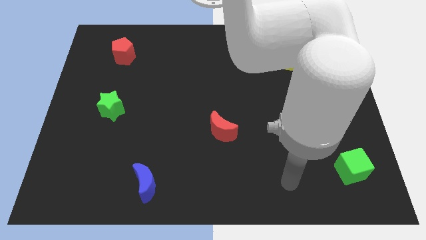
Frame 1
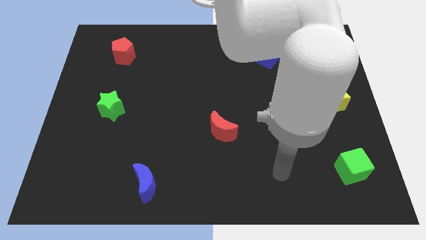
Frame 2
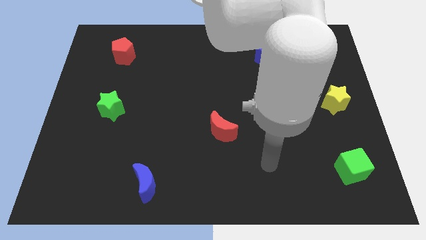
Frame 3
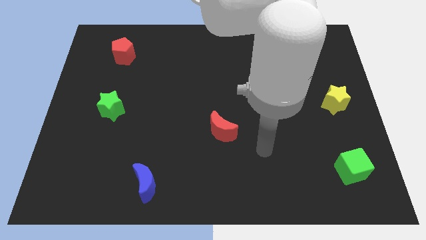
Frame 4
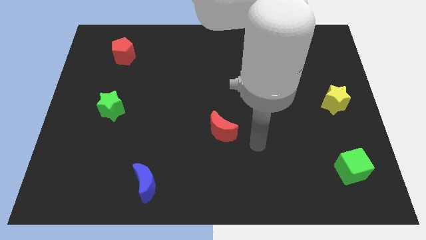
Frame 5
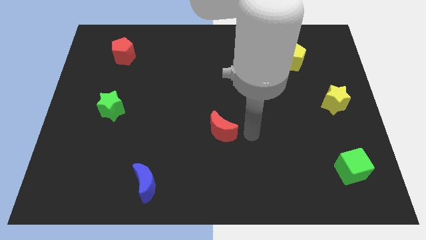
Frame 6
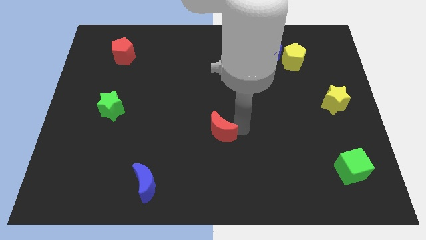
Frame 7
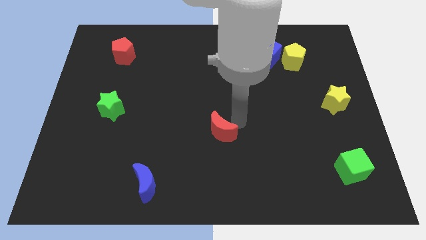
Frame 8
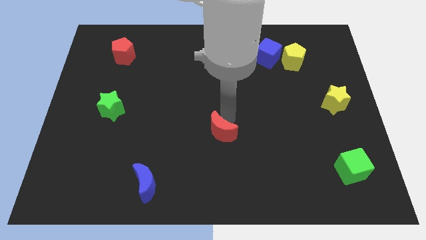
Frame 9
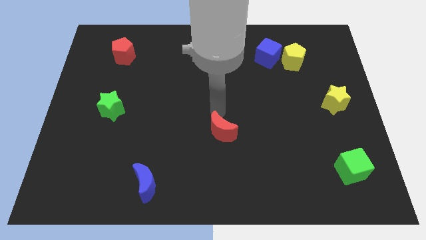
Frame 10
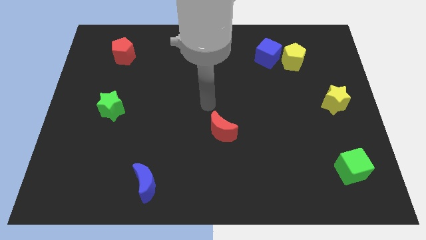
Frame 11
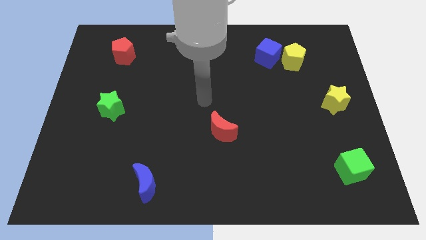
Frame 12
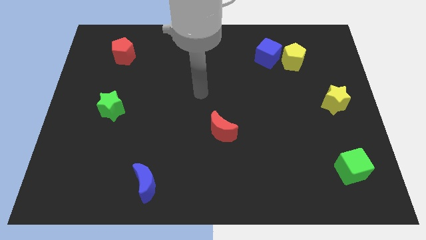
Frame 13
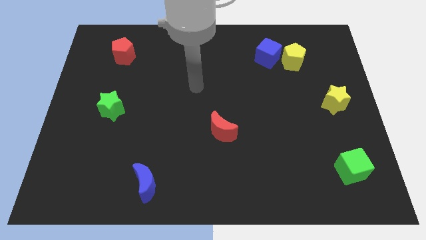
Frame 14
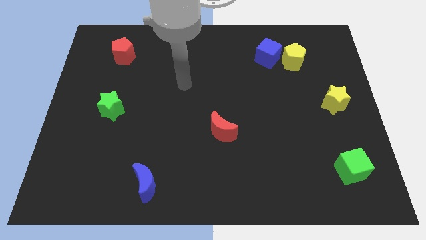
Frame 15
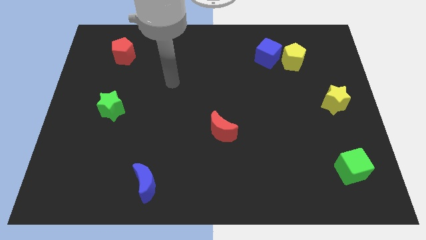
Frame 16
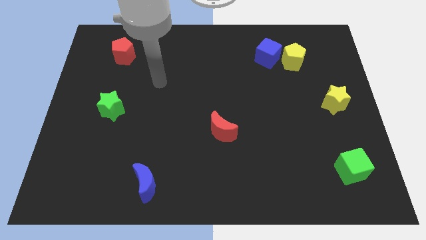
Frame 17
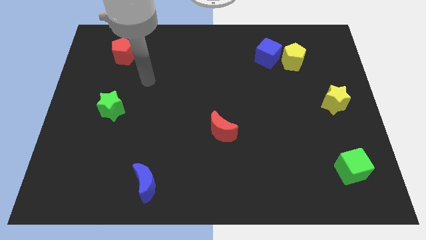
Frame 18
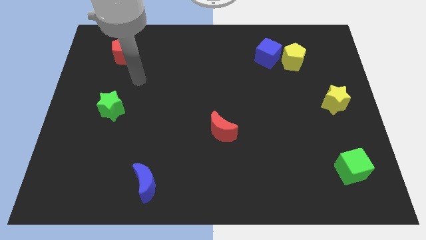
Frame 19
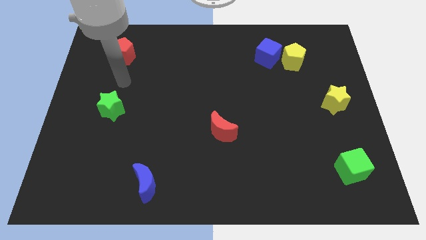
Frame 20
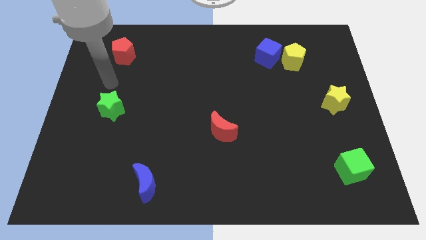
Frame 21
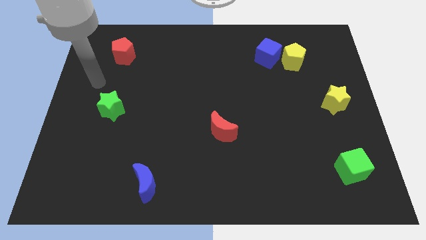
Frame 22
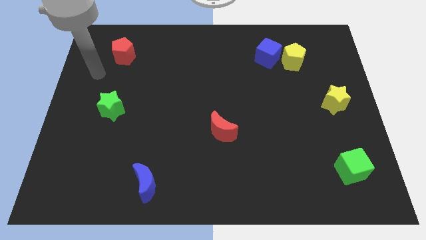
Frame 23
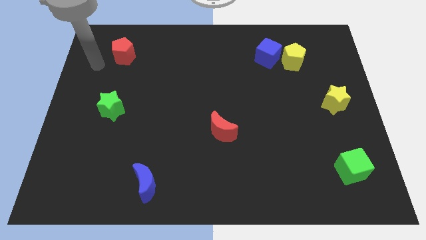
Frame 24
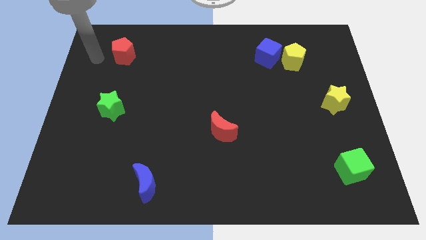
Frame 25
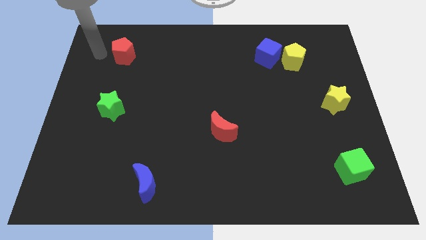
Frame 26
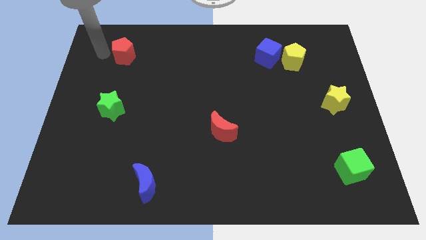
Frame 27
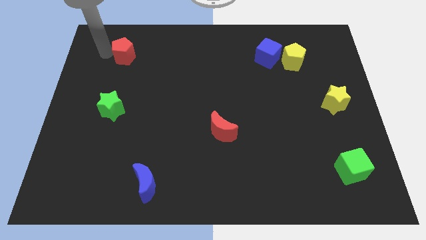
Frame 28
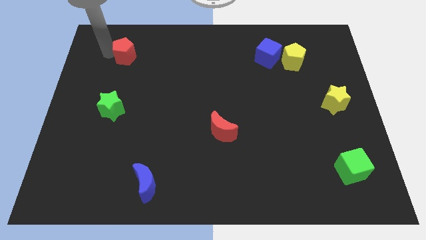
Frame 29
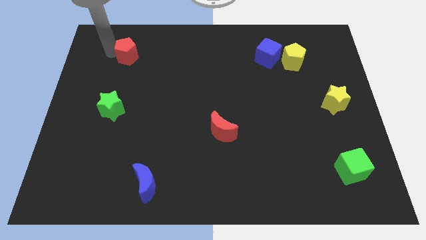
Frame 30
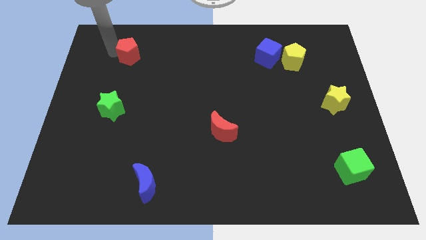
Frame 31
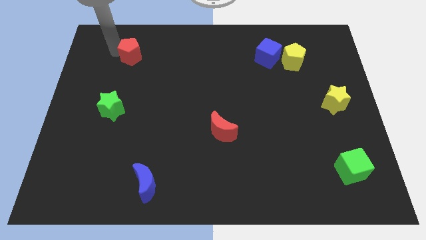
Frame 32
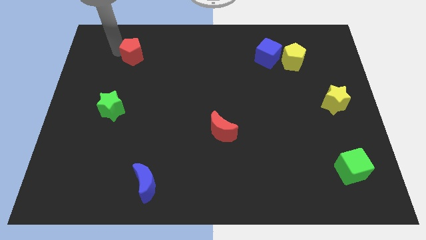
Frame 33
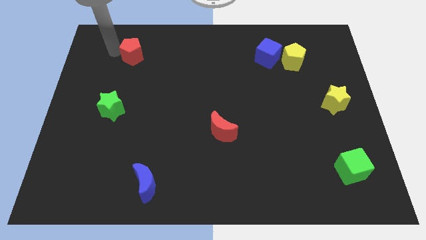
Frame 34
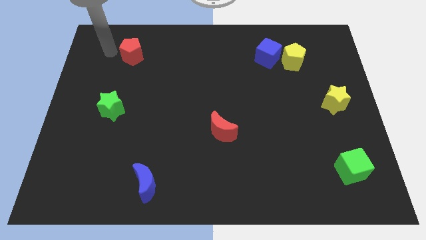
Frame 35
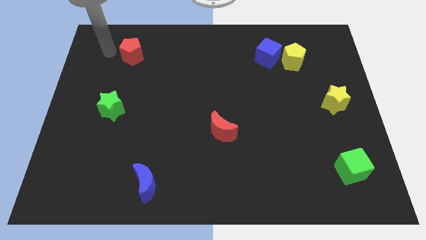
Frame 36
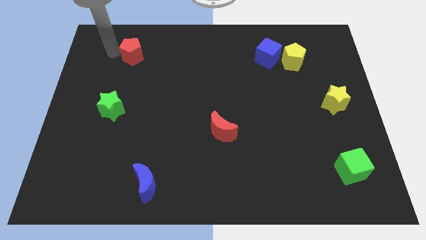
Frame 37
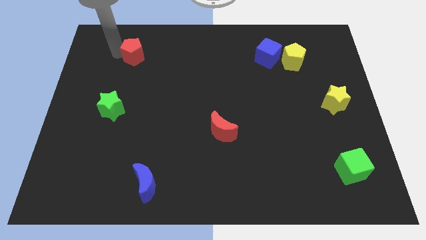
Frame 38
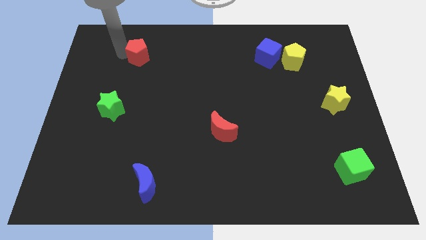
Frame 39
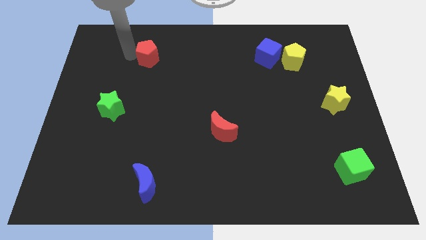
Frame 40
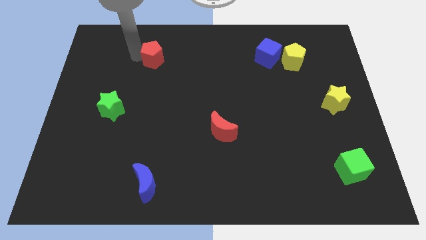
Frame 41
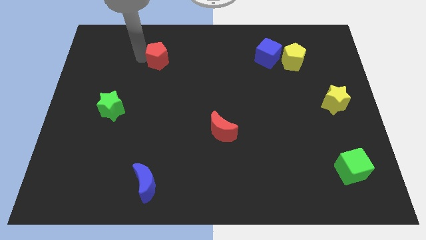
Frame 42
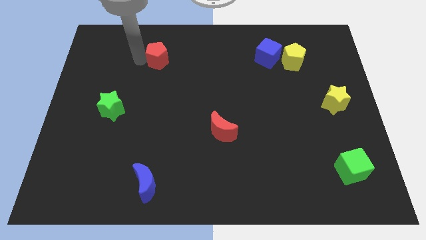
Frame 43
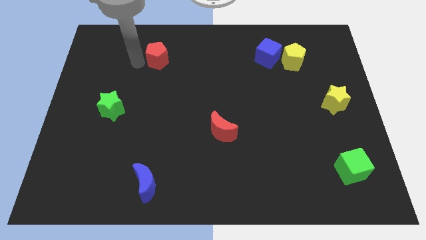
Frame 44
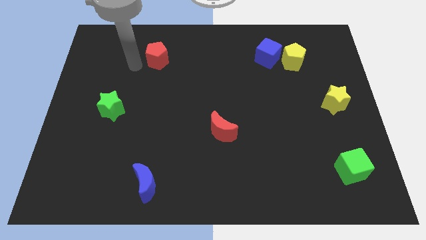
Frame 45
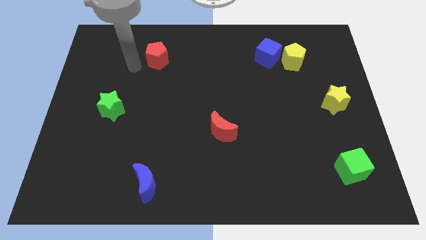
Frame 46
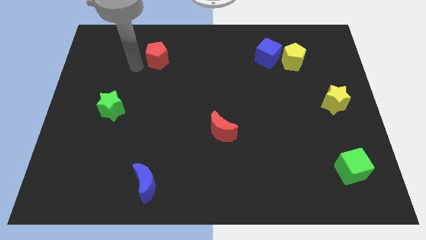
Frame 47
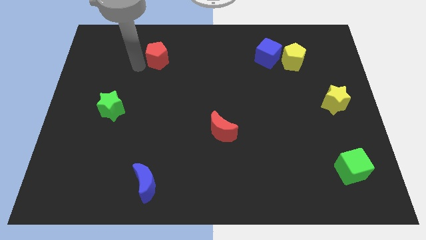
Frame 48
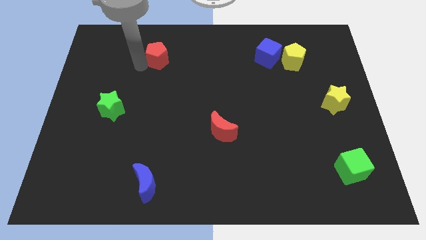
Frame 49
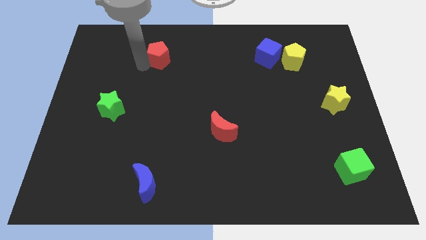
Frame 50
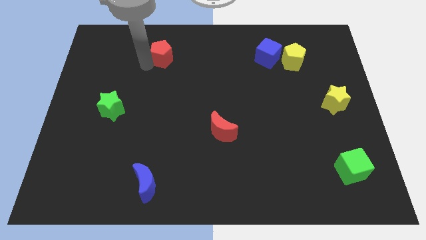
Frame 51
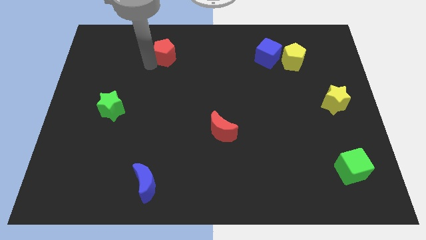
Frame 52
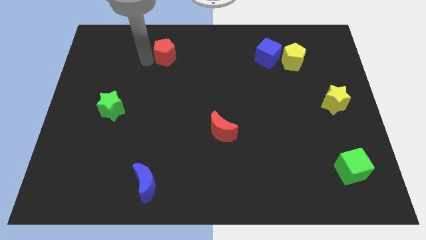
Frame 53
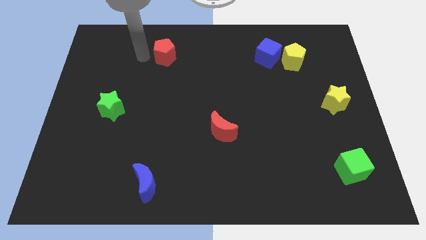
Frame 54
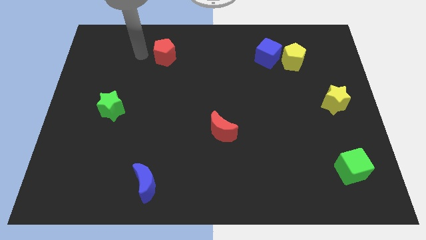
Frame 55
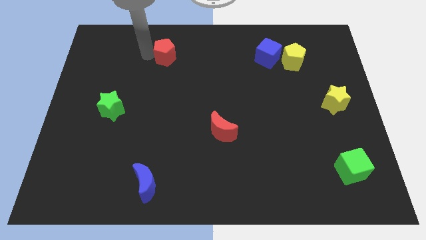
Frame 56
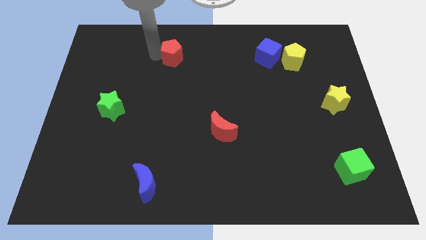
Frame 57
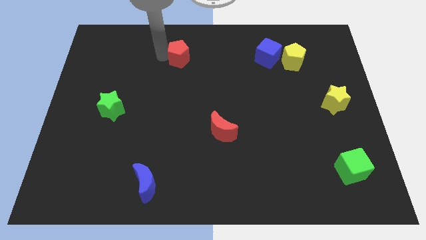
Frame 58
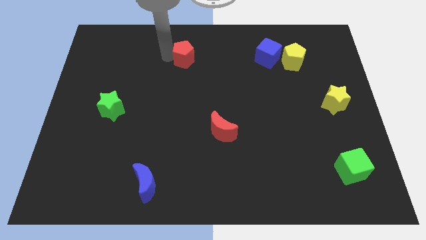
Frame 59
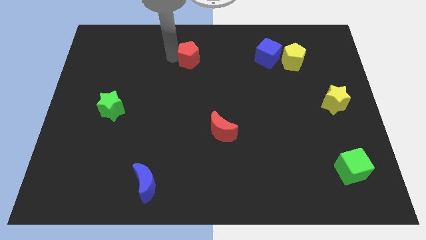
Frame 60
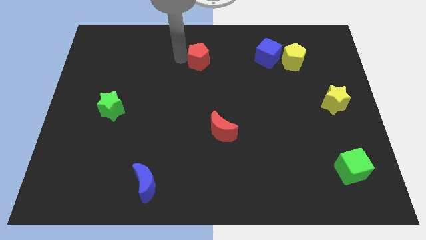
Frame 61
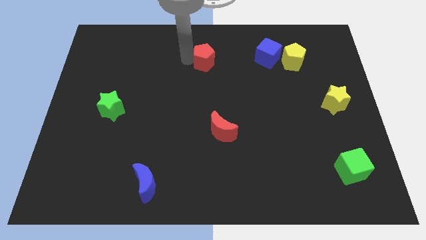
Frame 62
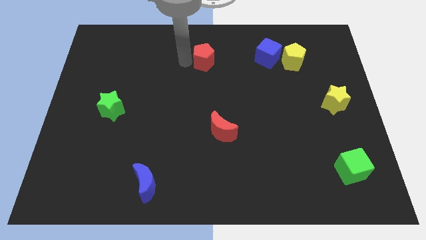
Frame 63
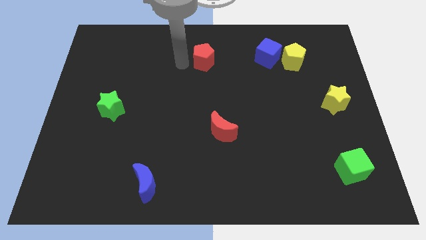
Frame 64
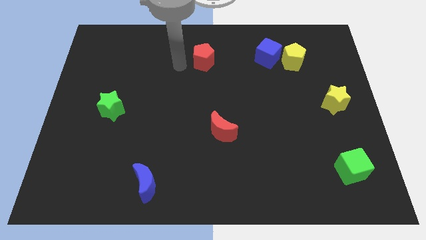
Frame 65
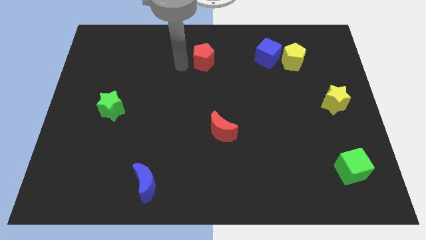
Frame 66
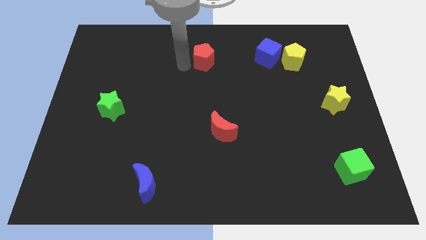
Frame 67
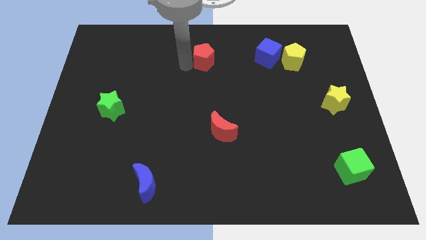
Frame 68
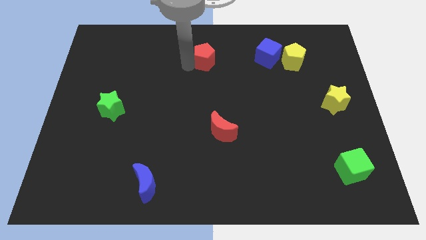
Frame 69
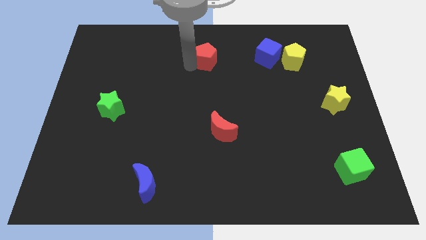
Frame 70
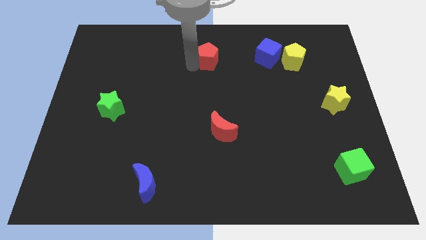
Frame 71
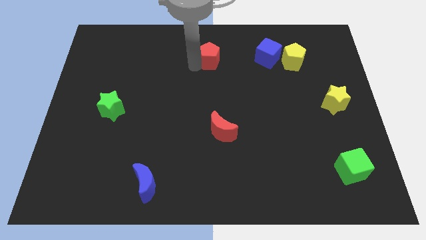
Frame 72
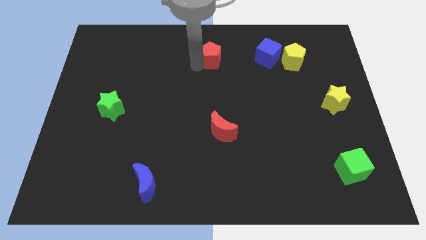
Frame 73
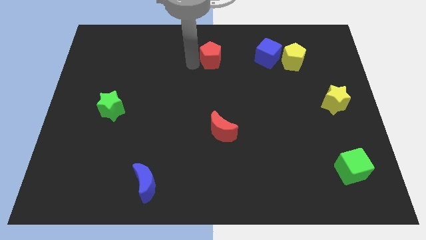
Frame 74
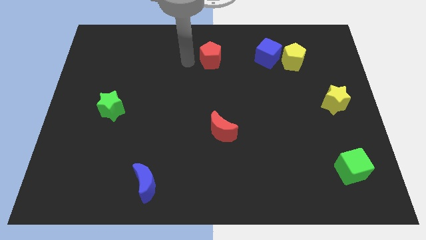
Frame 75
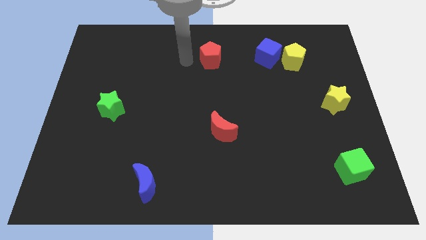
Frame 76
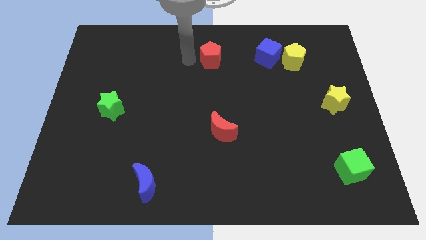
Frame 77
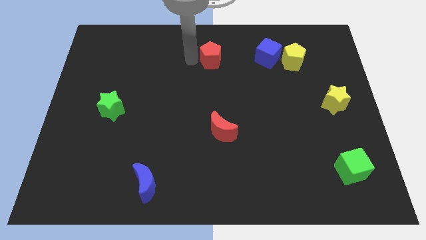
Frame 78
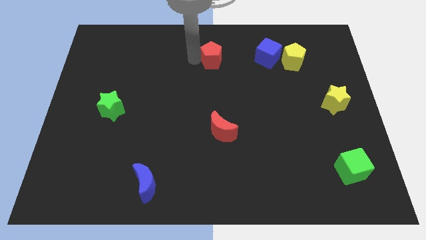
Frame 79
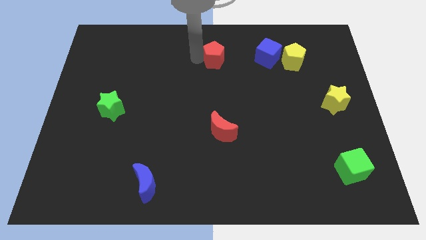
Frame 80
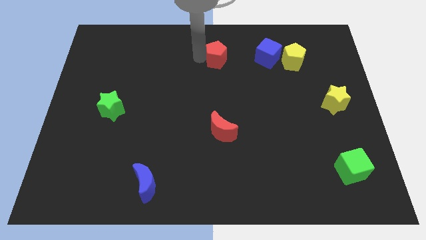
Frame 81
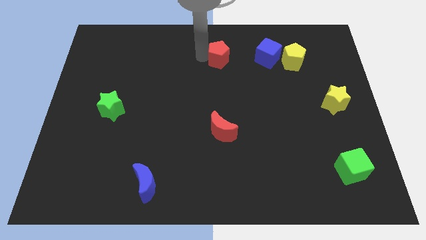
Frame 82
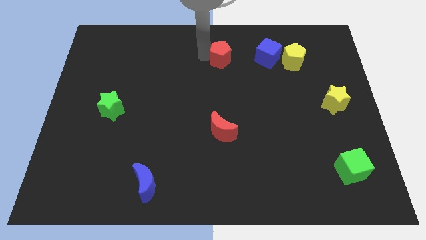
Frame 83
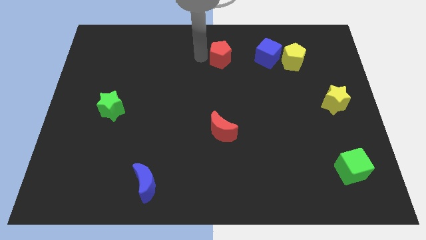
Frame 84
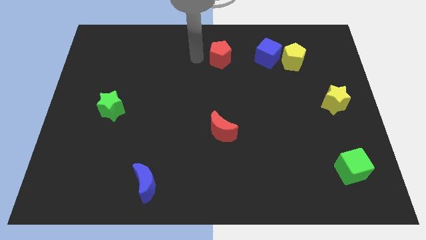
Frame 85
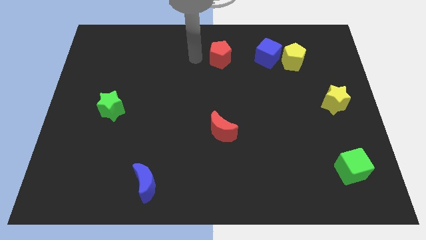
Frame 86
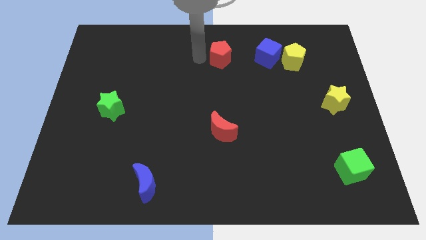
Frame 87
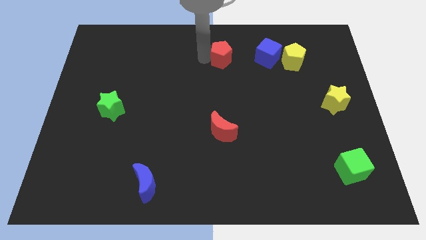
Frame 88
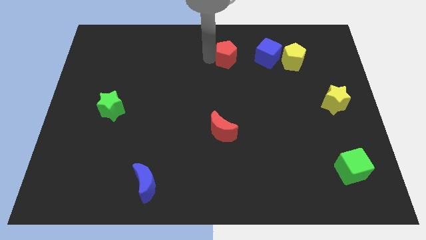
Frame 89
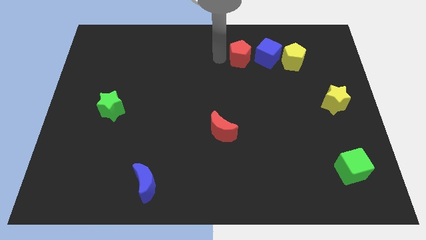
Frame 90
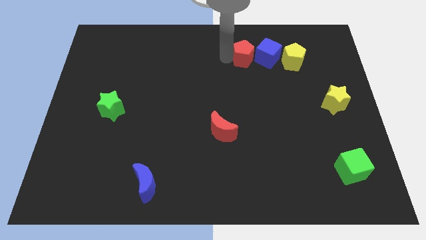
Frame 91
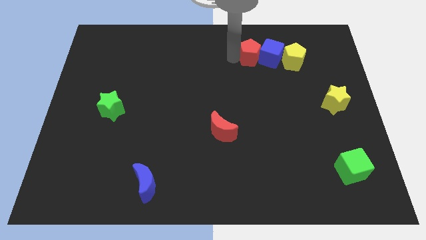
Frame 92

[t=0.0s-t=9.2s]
push the red pentagon next to the blue cube
